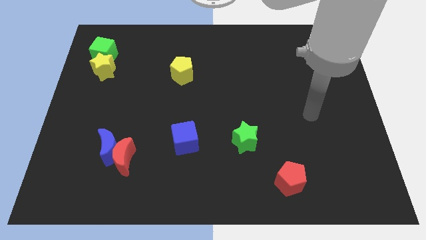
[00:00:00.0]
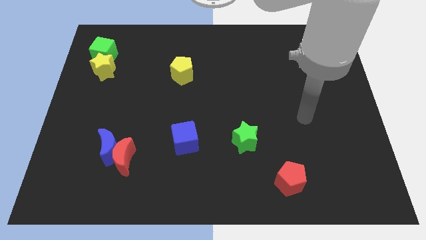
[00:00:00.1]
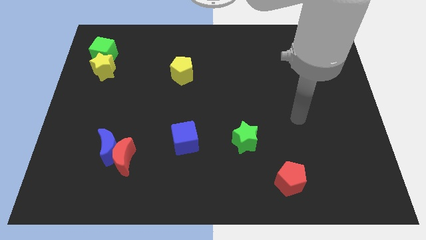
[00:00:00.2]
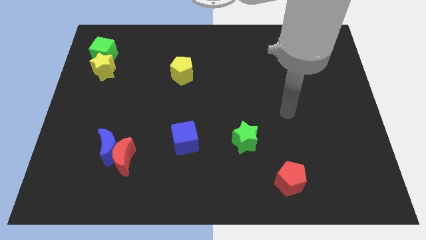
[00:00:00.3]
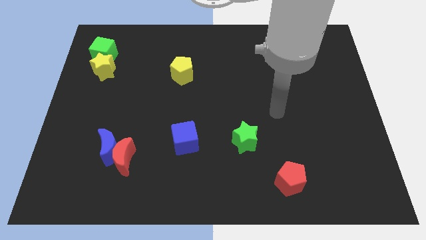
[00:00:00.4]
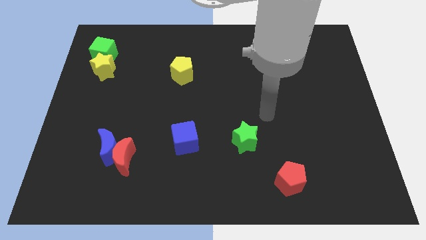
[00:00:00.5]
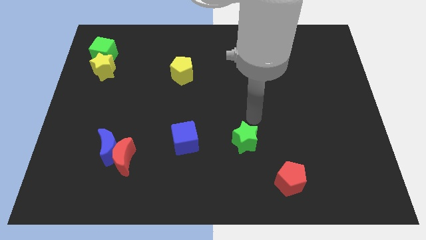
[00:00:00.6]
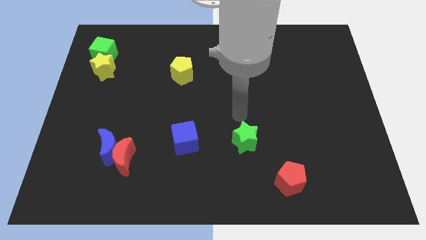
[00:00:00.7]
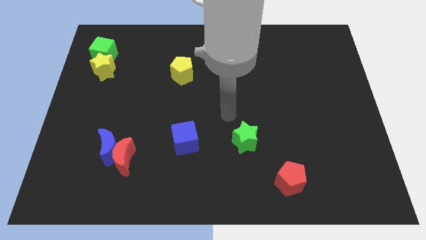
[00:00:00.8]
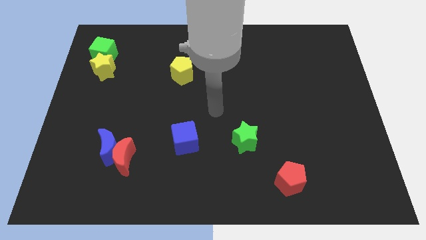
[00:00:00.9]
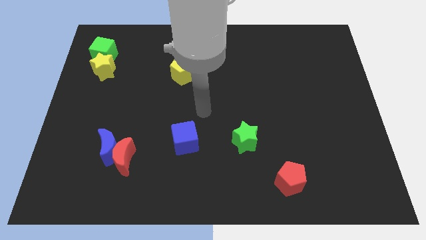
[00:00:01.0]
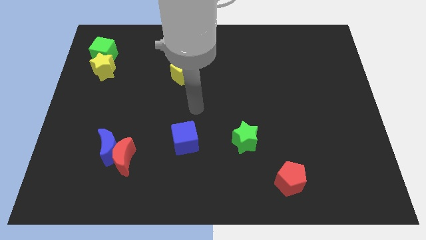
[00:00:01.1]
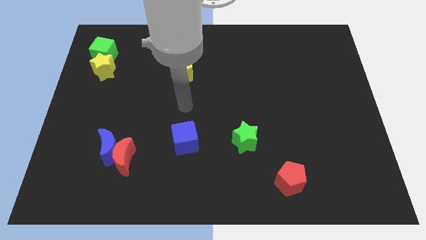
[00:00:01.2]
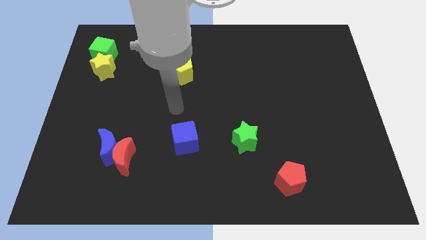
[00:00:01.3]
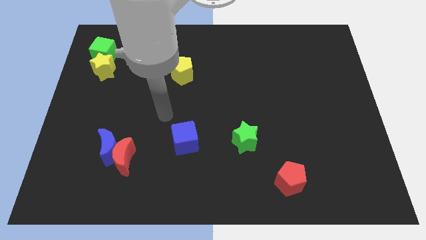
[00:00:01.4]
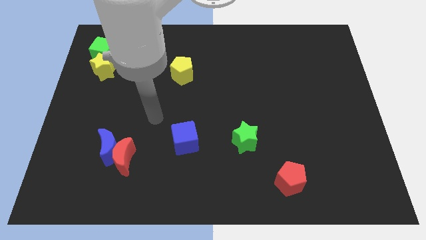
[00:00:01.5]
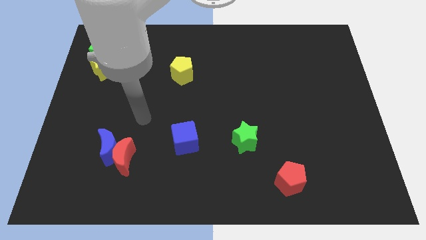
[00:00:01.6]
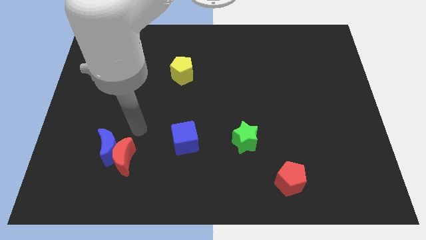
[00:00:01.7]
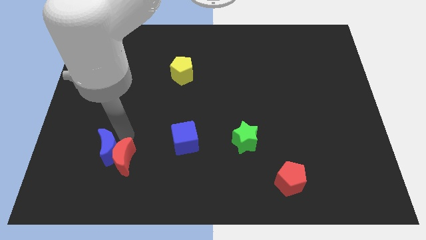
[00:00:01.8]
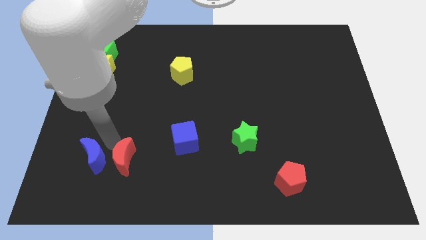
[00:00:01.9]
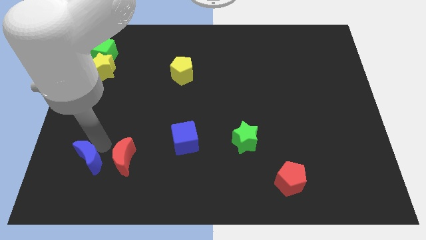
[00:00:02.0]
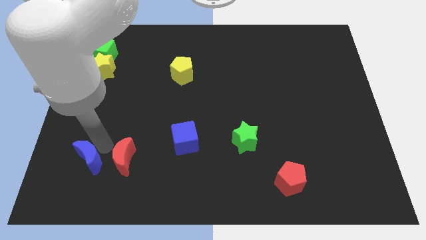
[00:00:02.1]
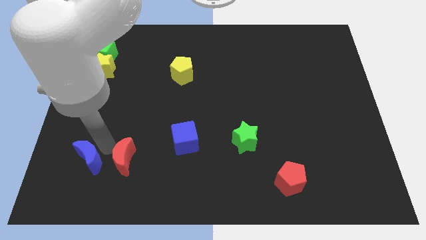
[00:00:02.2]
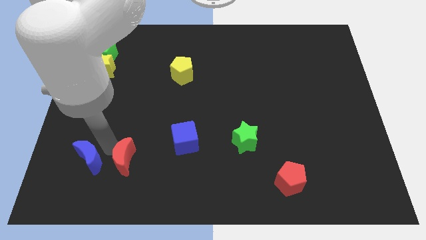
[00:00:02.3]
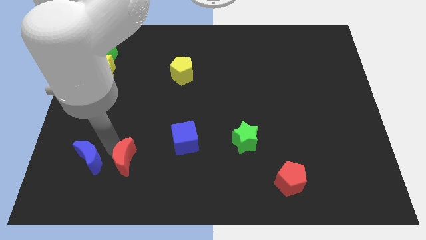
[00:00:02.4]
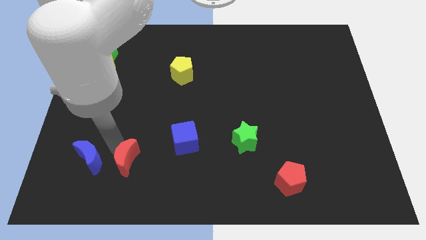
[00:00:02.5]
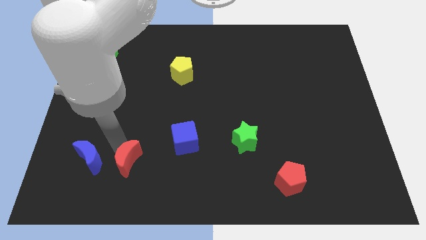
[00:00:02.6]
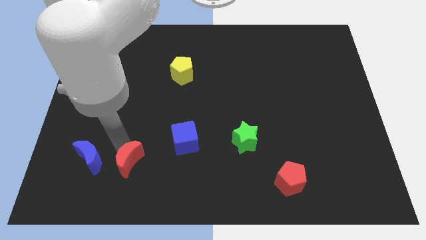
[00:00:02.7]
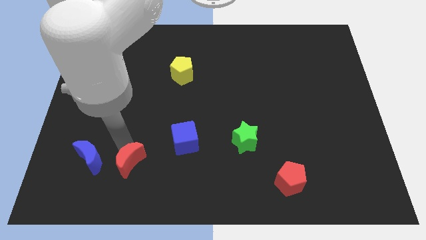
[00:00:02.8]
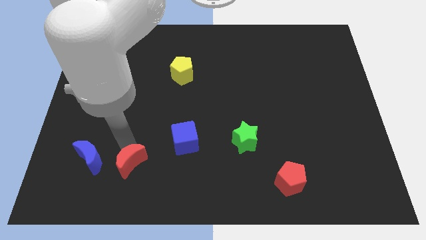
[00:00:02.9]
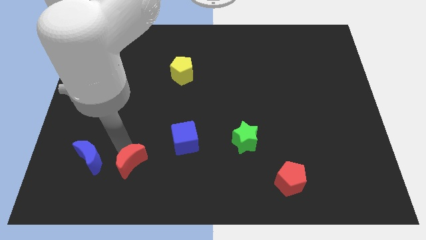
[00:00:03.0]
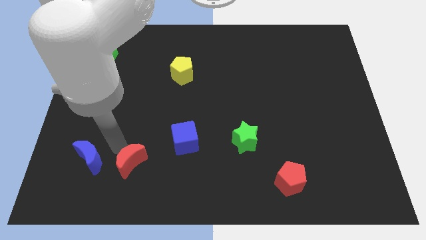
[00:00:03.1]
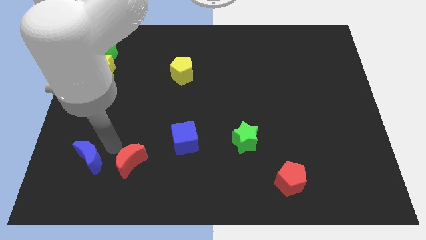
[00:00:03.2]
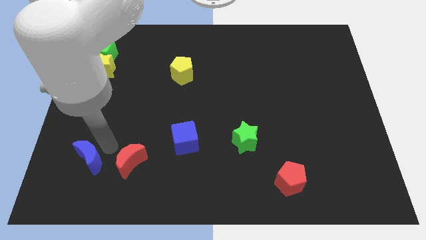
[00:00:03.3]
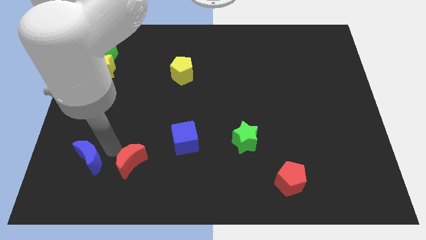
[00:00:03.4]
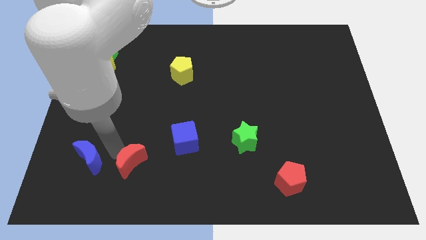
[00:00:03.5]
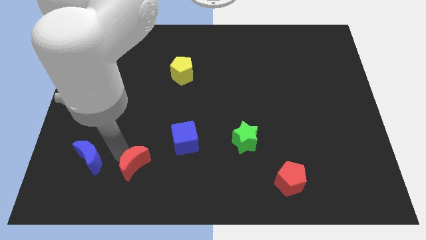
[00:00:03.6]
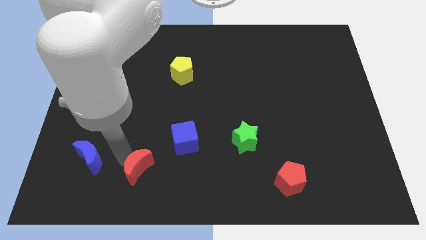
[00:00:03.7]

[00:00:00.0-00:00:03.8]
separate the red moon from the blue moon

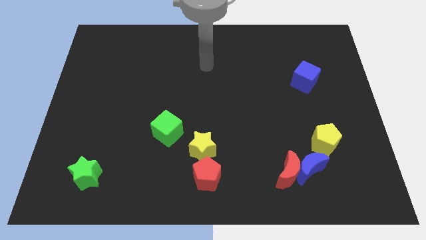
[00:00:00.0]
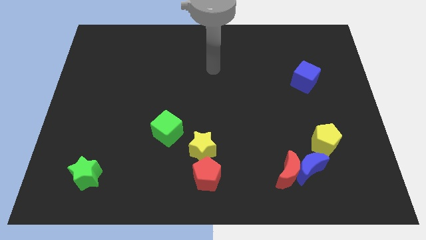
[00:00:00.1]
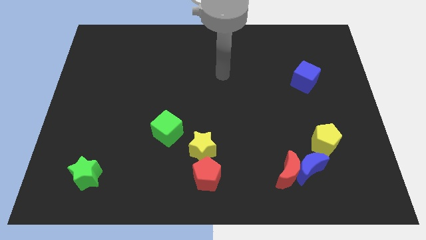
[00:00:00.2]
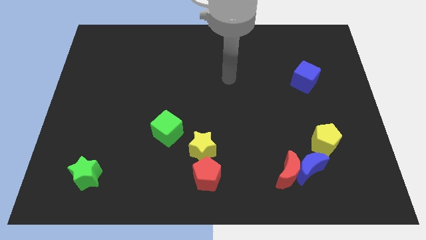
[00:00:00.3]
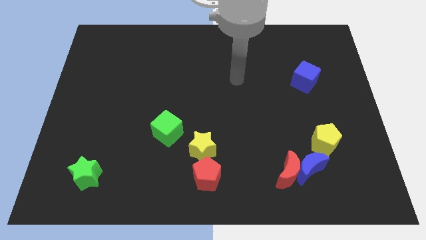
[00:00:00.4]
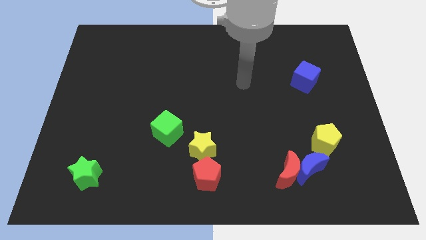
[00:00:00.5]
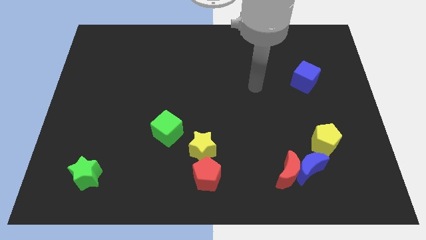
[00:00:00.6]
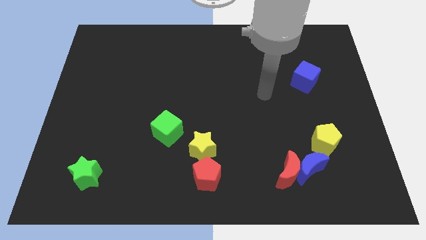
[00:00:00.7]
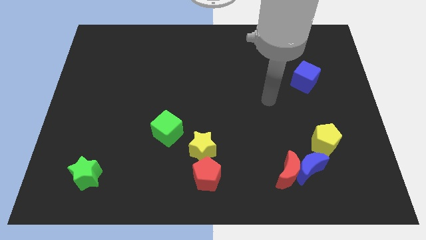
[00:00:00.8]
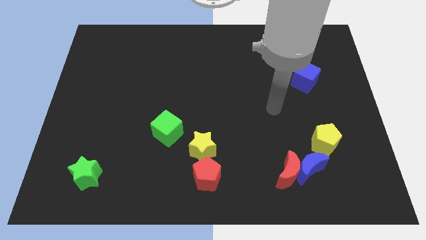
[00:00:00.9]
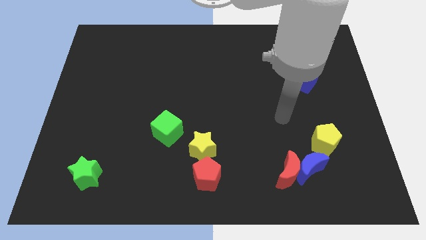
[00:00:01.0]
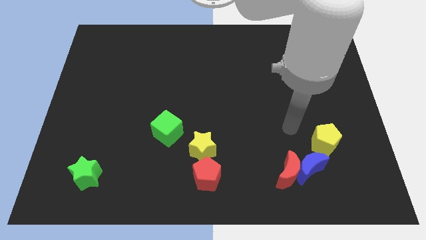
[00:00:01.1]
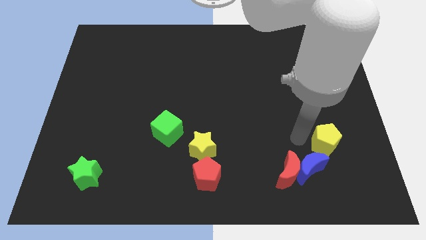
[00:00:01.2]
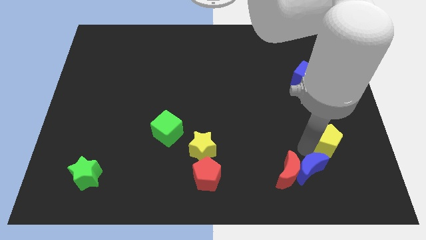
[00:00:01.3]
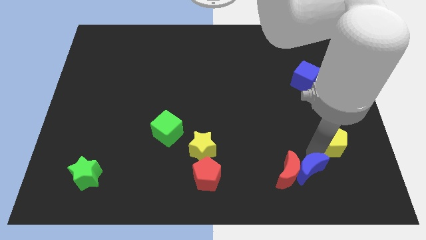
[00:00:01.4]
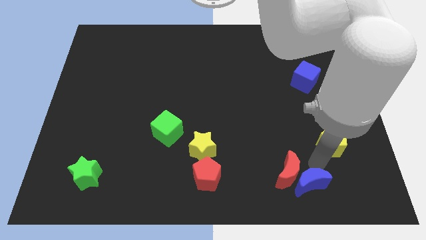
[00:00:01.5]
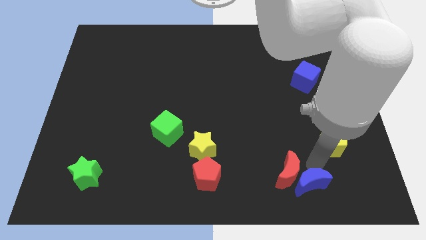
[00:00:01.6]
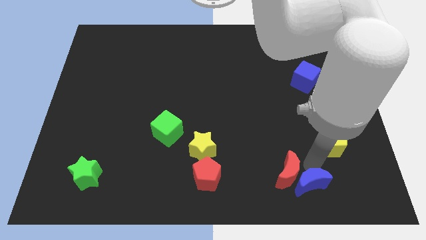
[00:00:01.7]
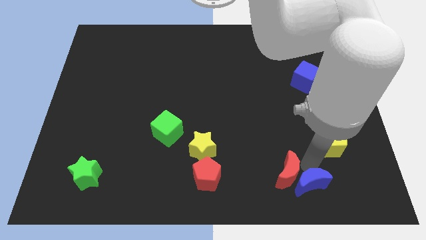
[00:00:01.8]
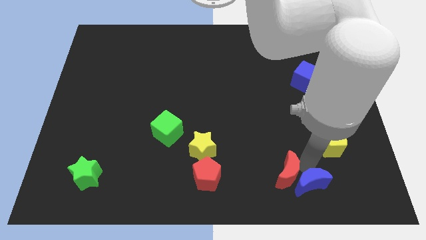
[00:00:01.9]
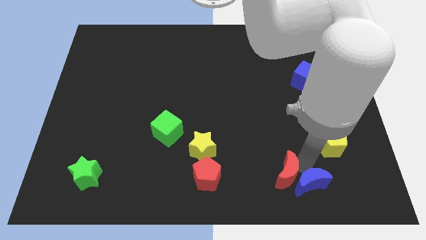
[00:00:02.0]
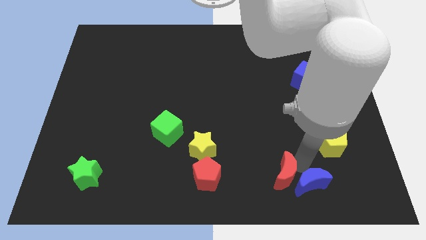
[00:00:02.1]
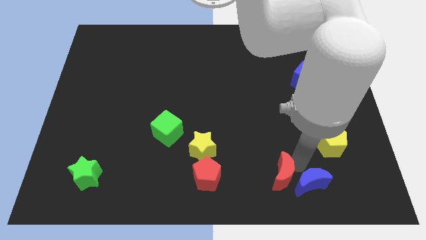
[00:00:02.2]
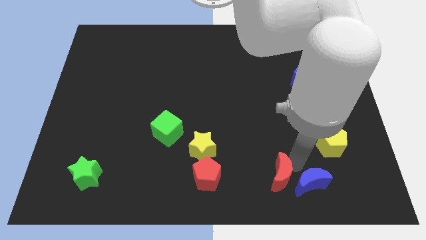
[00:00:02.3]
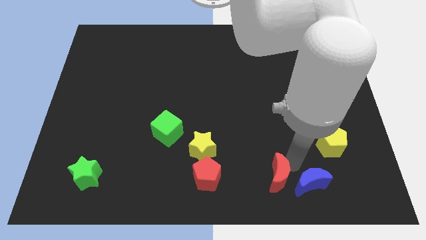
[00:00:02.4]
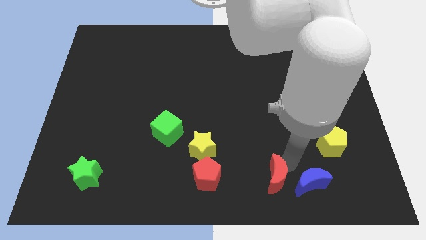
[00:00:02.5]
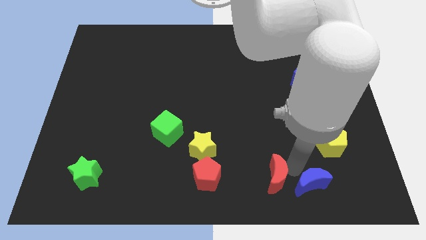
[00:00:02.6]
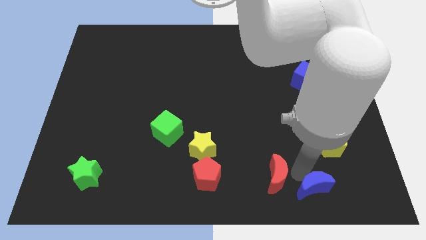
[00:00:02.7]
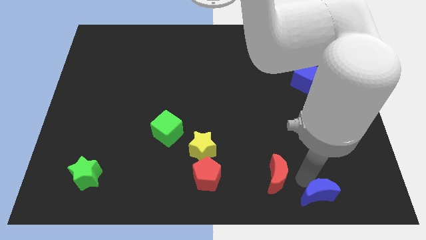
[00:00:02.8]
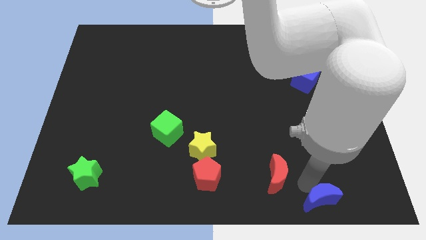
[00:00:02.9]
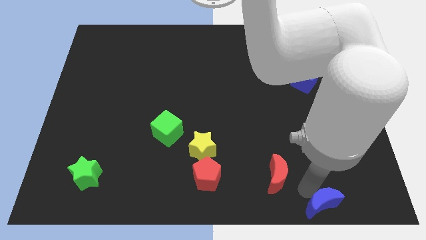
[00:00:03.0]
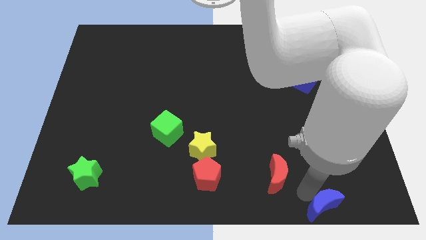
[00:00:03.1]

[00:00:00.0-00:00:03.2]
pull the red moon apart from the blue moon

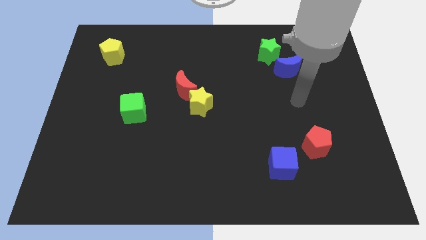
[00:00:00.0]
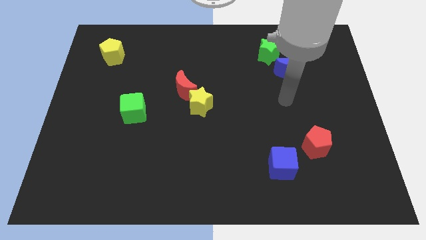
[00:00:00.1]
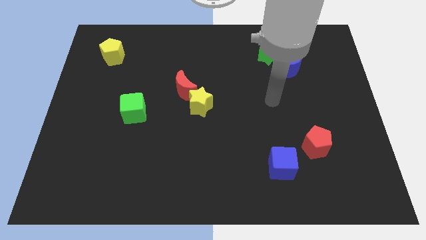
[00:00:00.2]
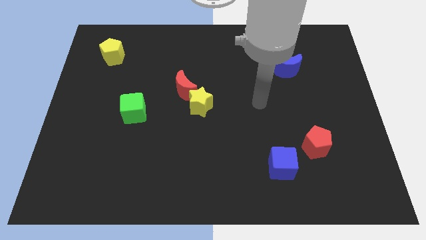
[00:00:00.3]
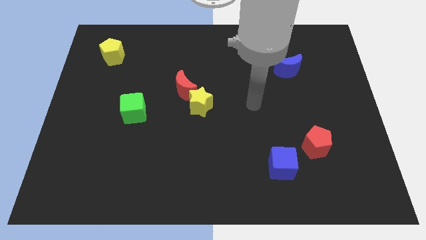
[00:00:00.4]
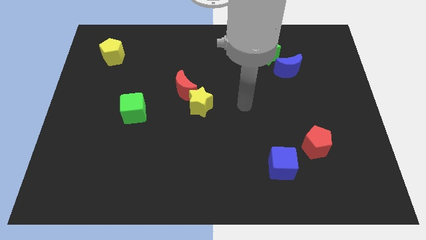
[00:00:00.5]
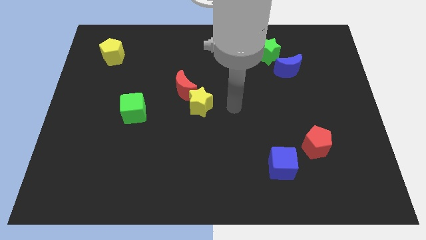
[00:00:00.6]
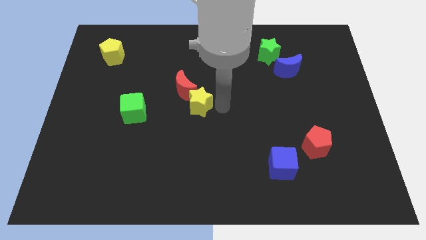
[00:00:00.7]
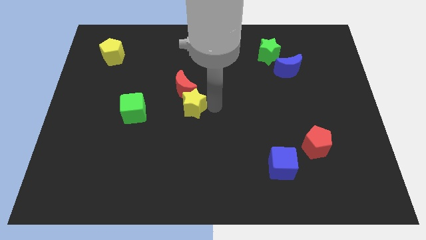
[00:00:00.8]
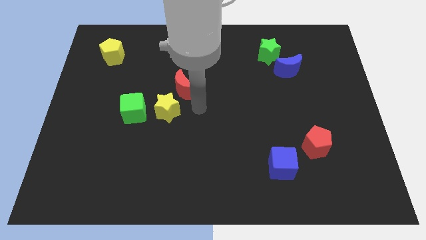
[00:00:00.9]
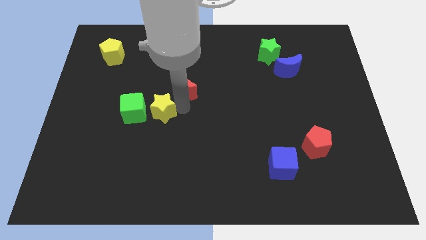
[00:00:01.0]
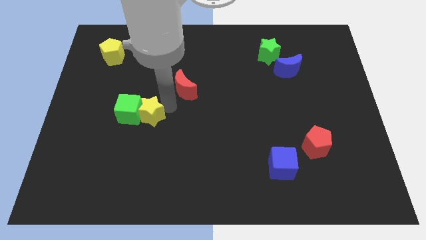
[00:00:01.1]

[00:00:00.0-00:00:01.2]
move the red moon away from the yellow star

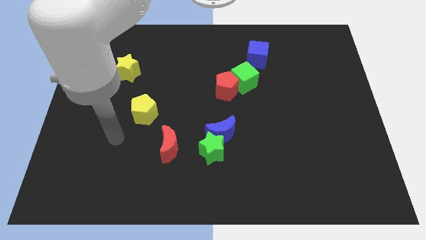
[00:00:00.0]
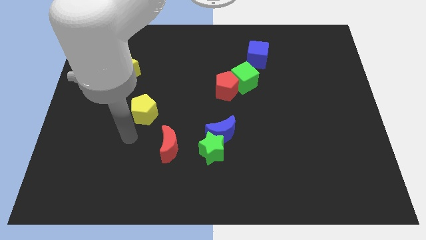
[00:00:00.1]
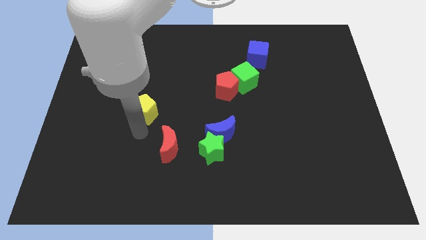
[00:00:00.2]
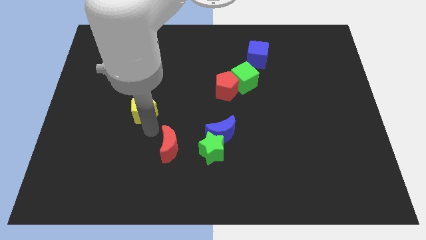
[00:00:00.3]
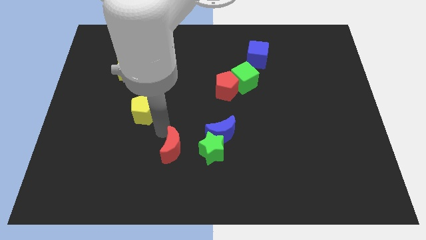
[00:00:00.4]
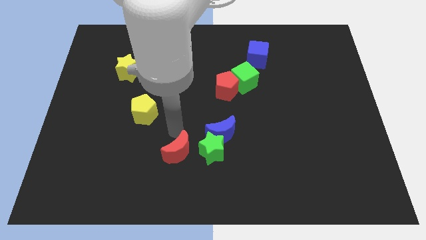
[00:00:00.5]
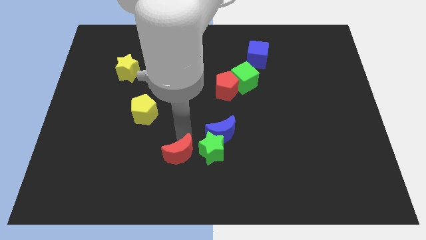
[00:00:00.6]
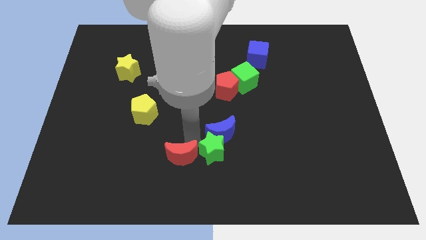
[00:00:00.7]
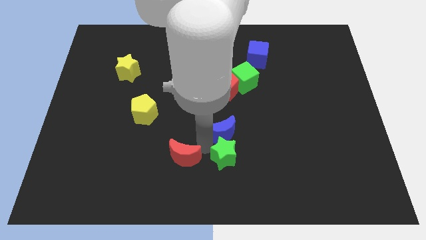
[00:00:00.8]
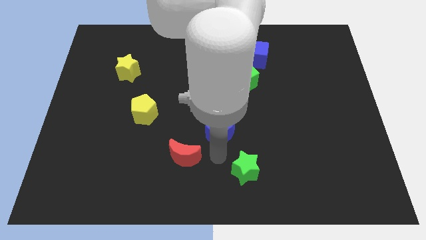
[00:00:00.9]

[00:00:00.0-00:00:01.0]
separate the blue moon from the green star
